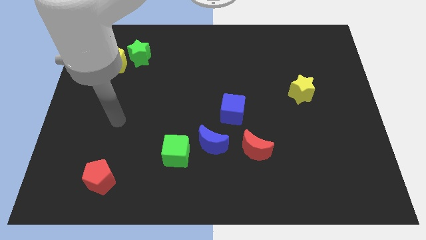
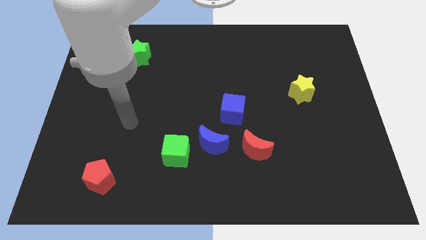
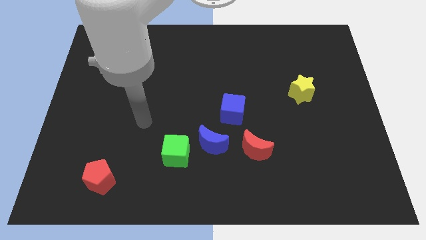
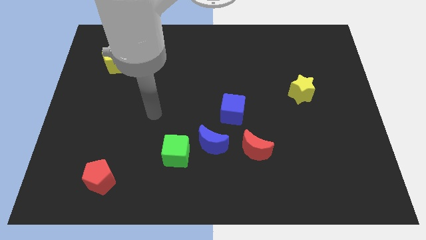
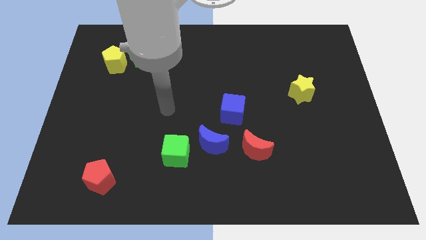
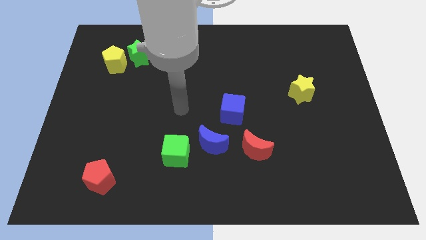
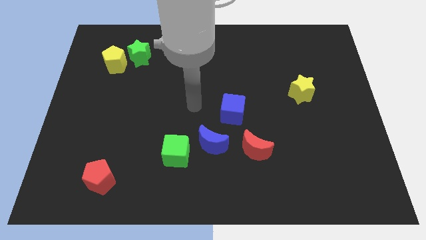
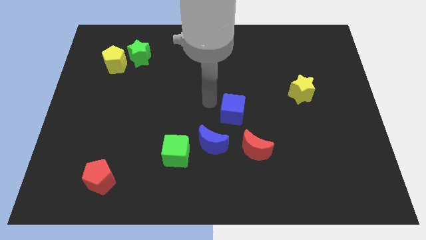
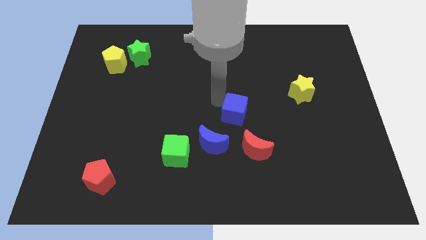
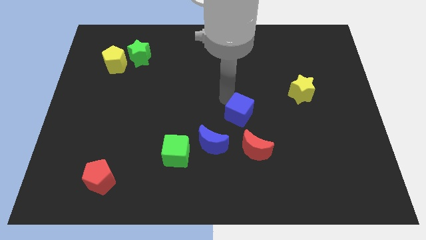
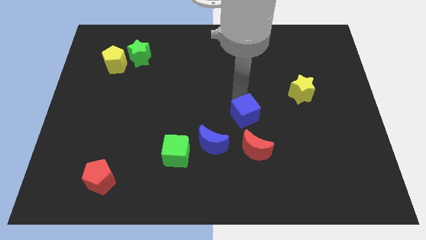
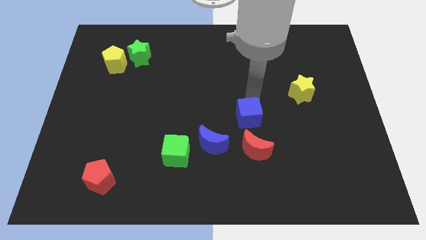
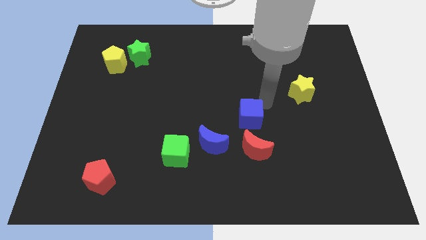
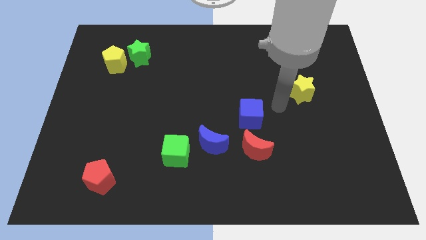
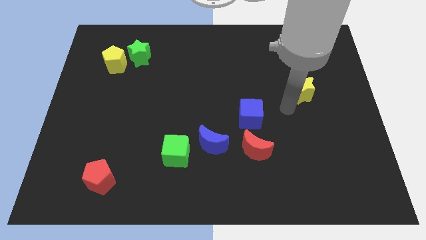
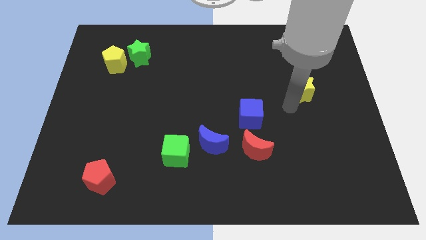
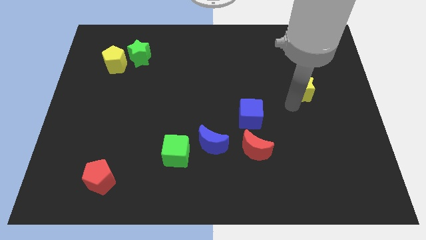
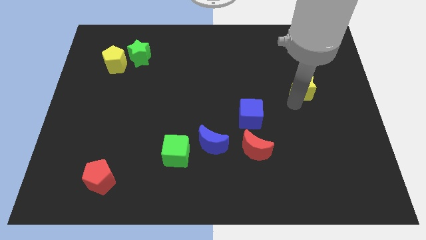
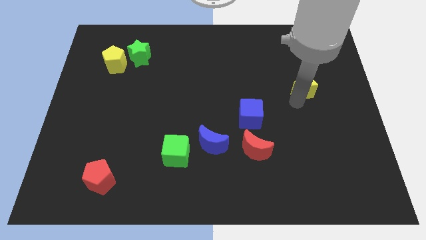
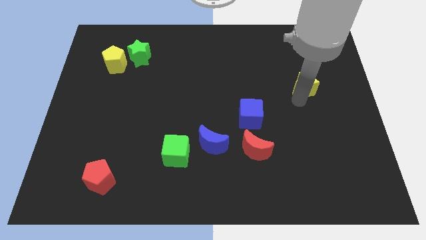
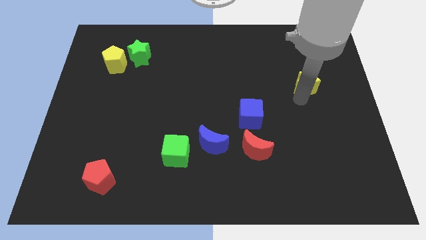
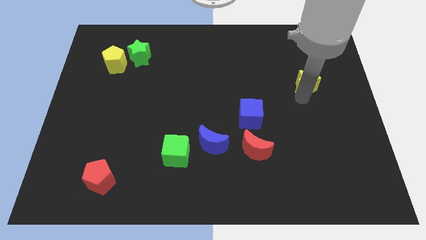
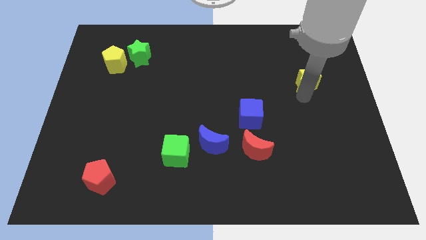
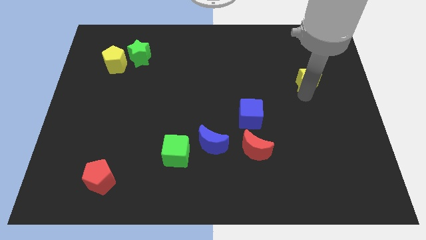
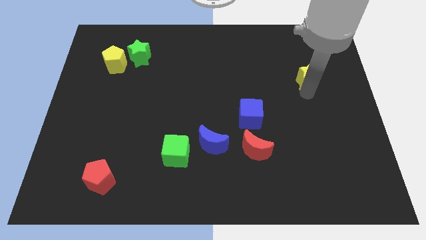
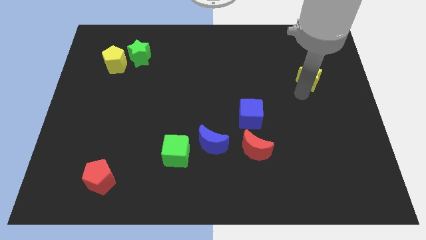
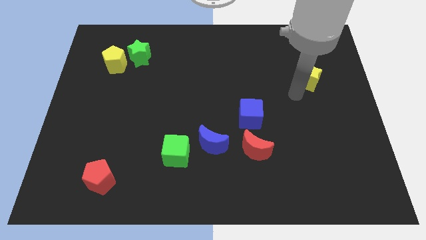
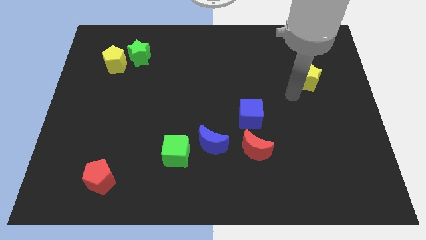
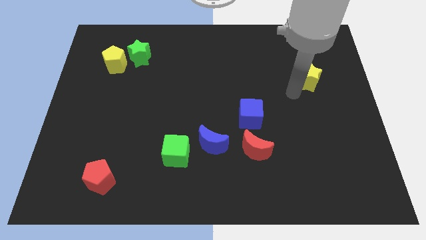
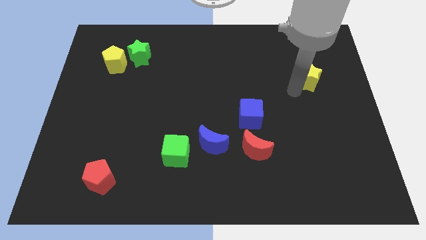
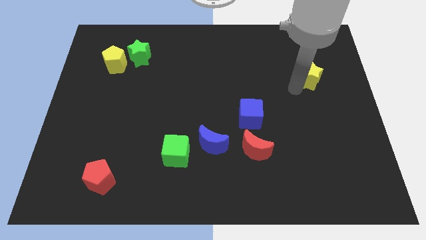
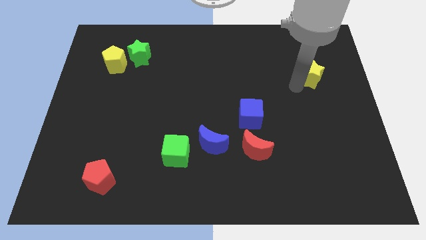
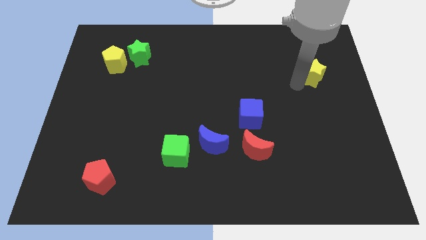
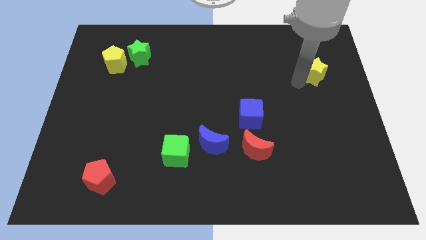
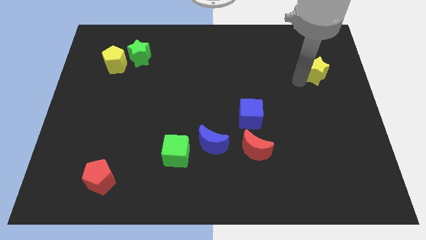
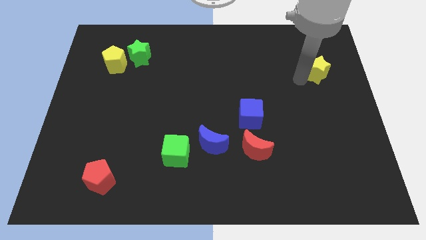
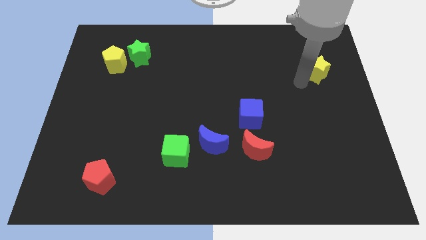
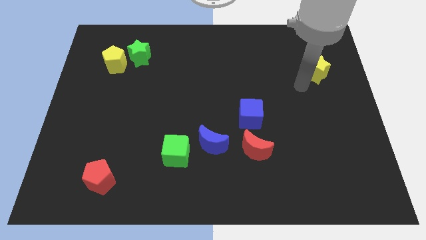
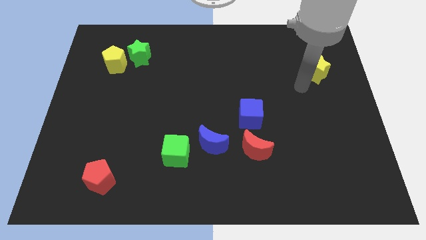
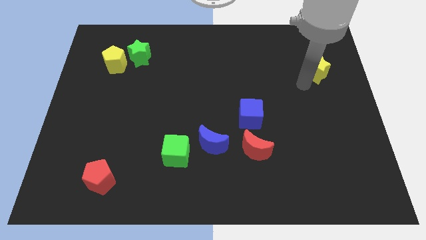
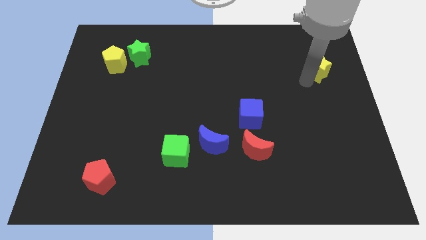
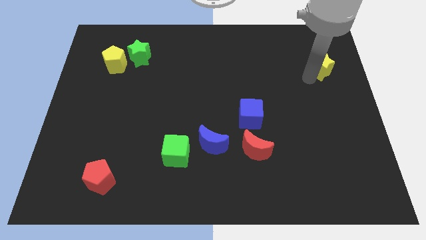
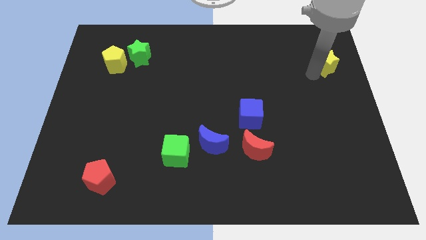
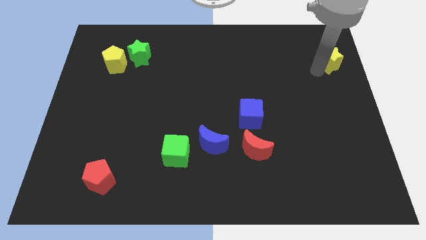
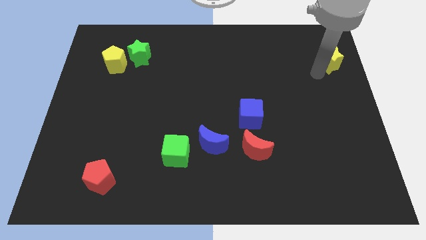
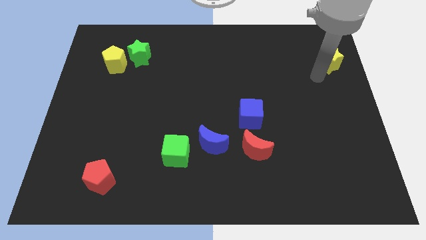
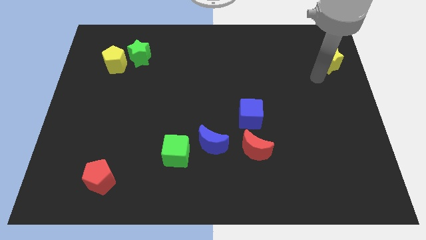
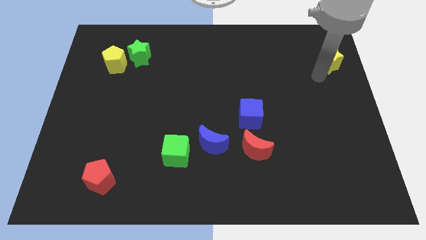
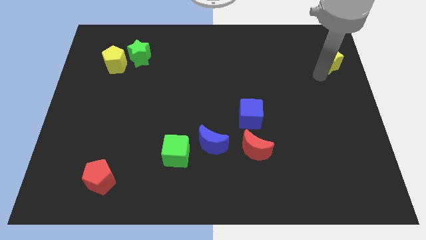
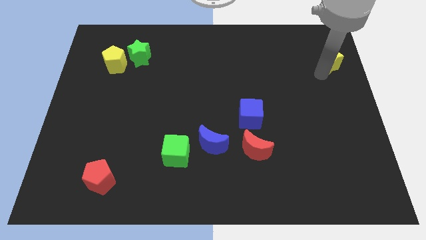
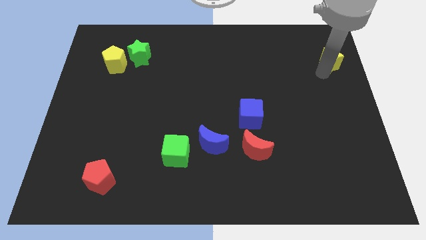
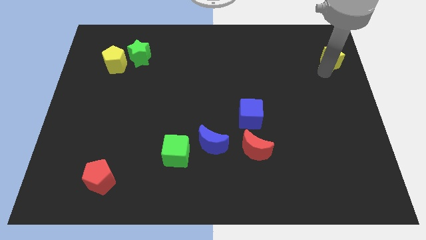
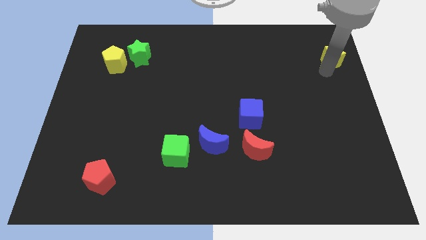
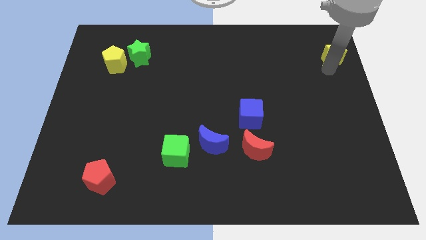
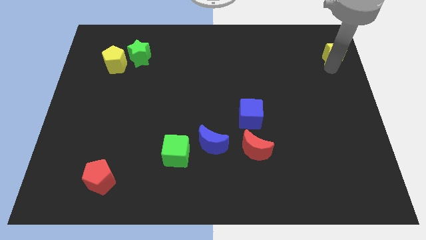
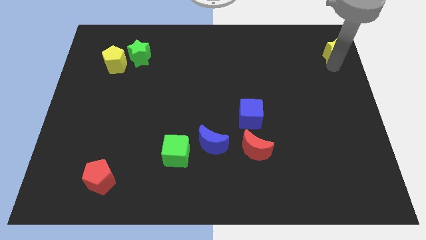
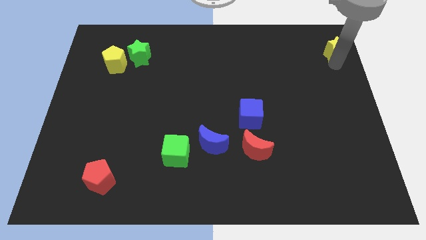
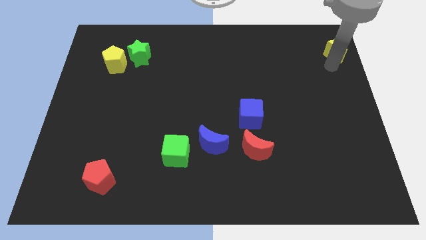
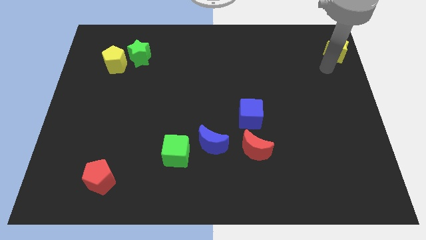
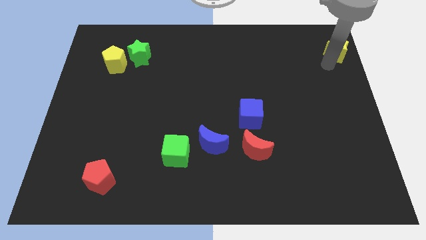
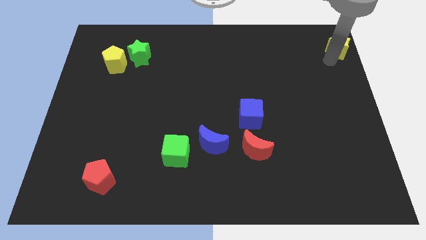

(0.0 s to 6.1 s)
move the yellow star to the top right of the board

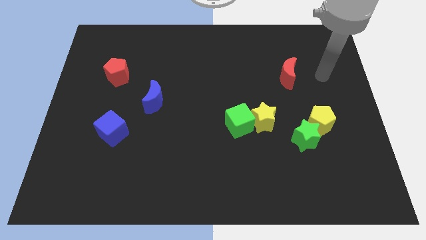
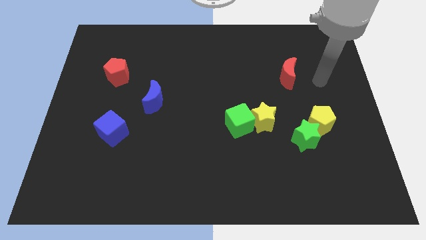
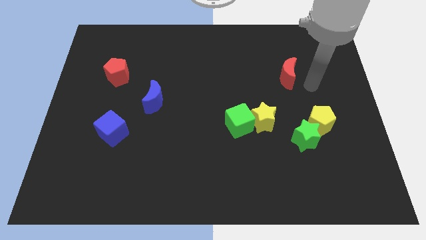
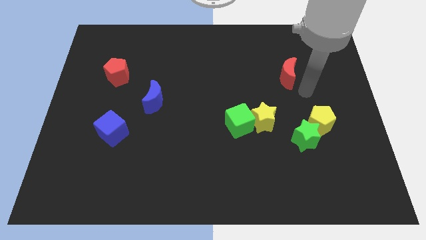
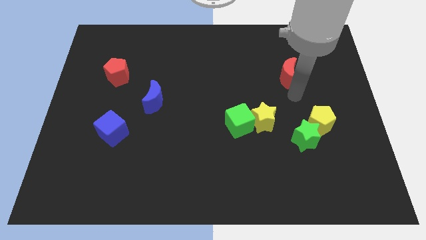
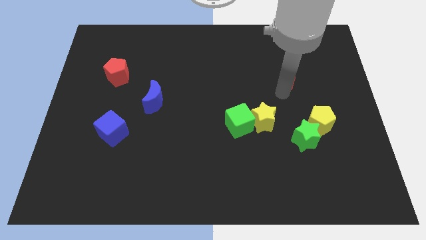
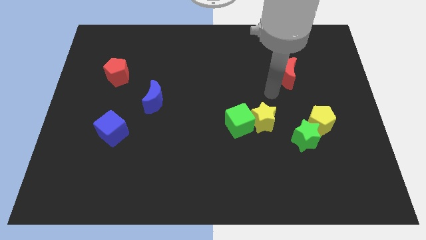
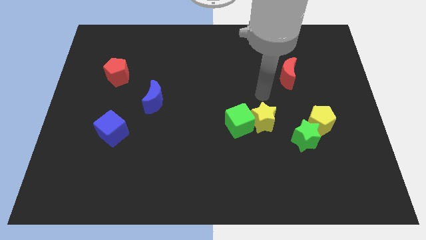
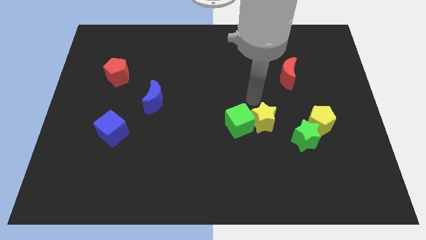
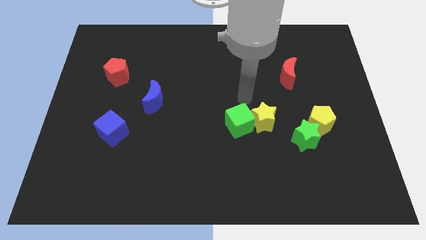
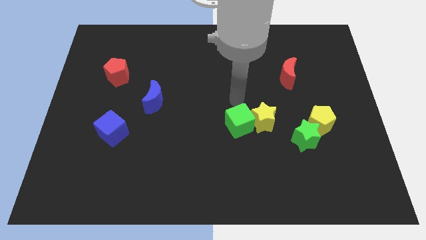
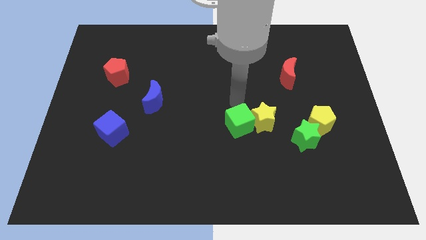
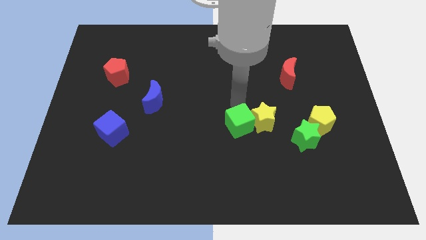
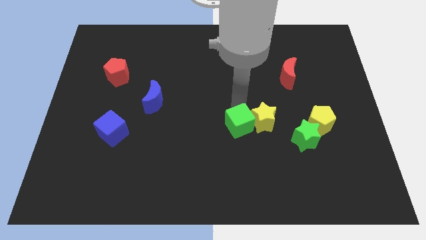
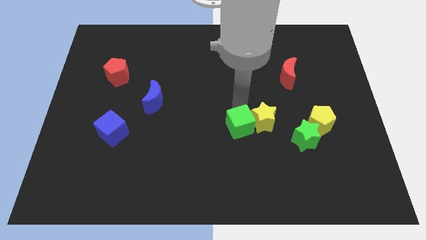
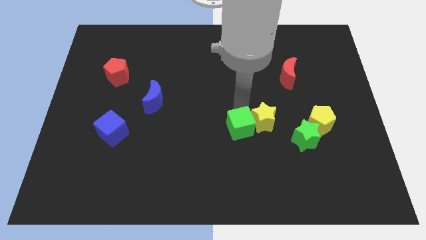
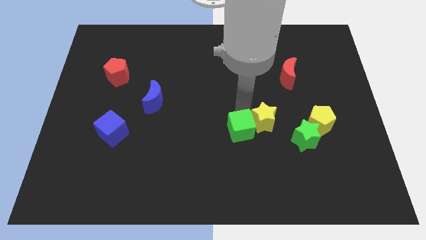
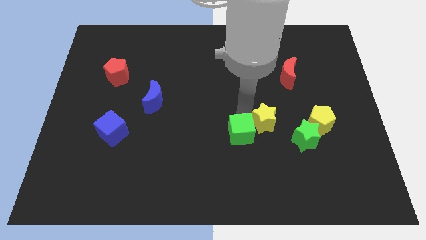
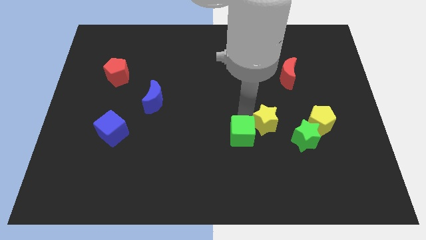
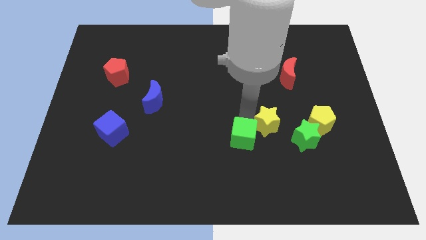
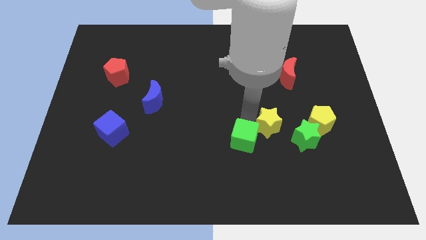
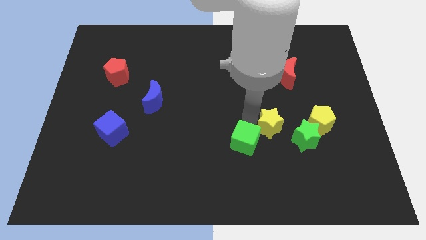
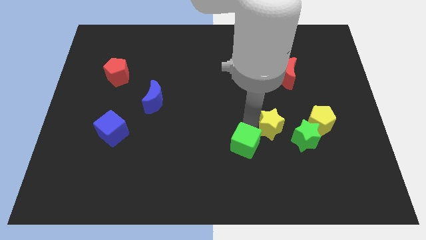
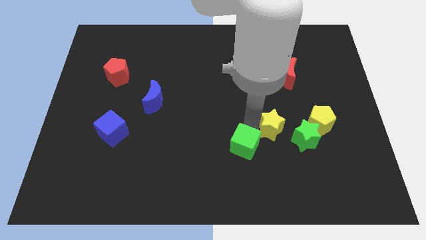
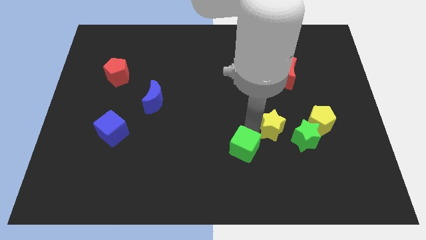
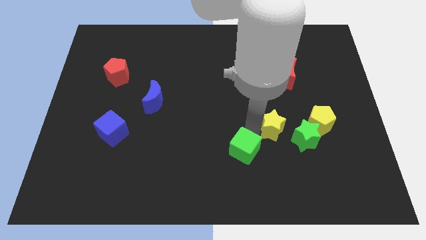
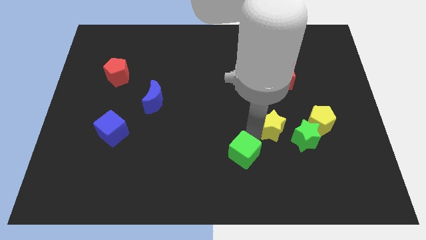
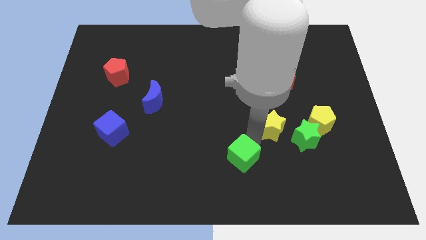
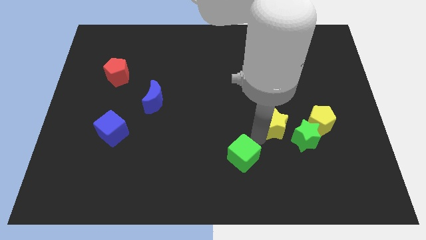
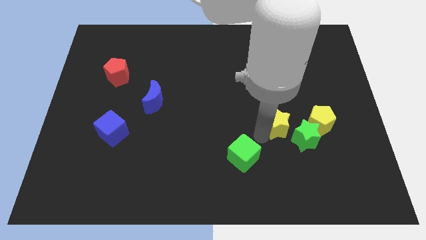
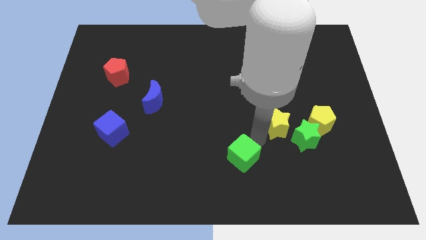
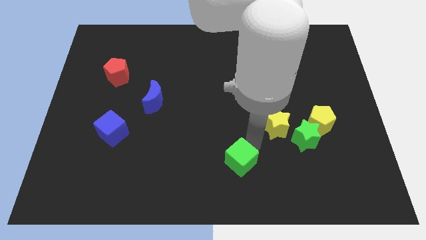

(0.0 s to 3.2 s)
push the green cube to the bottom side
